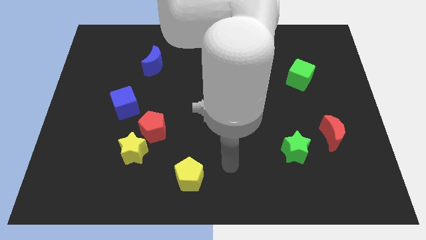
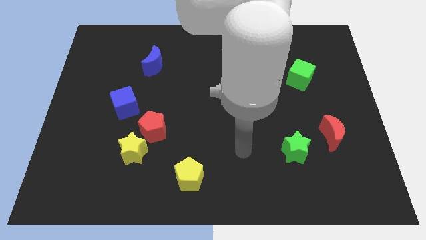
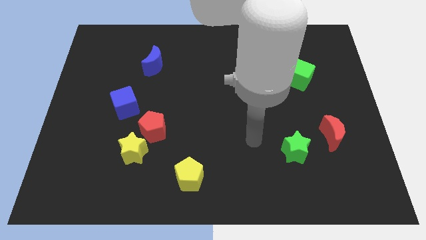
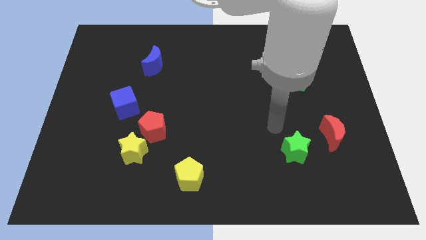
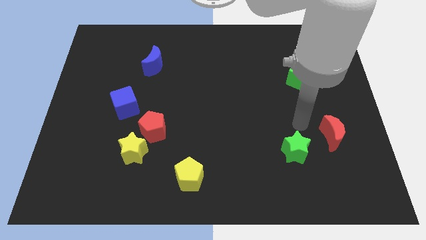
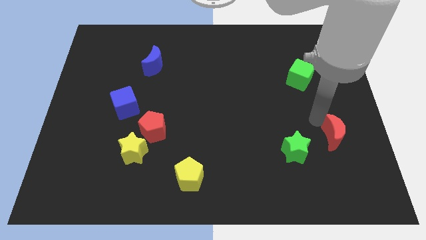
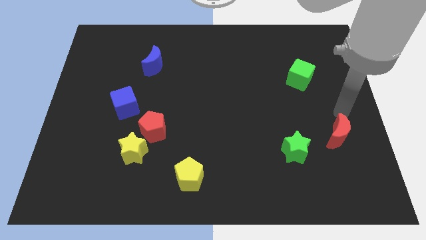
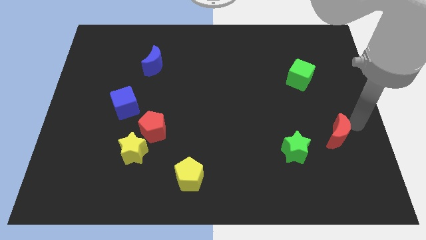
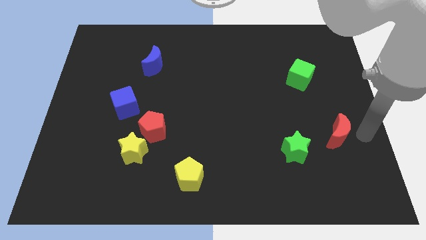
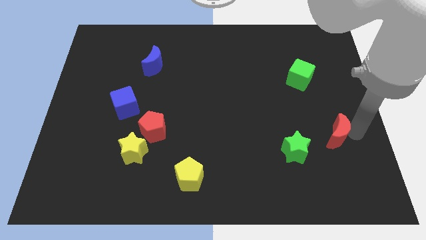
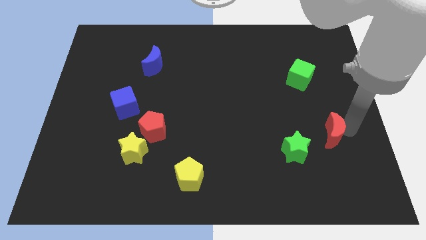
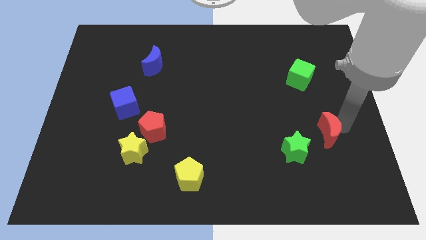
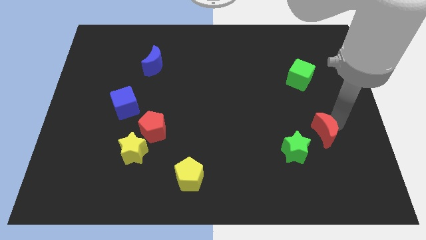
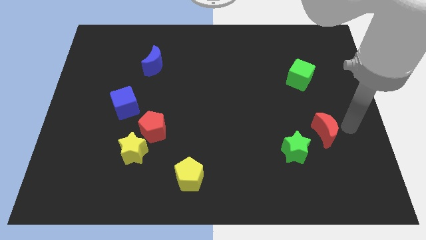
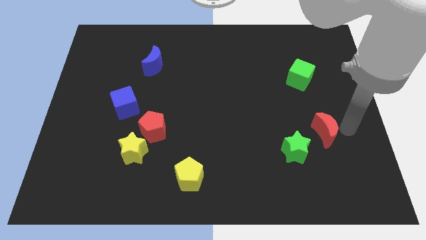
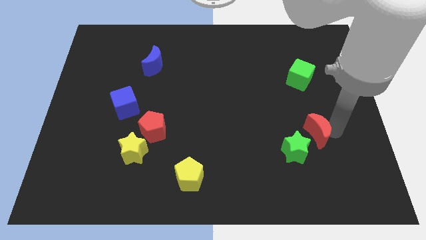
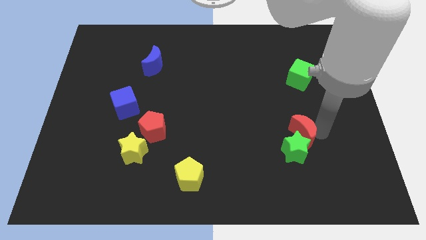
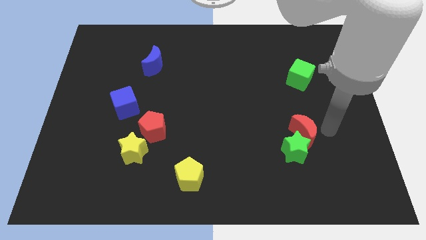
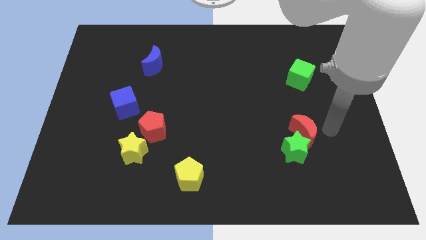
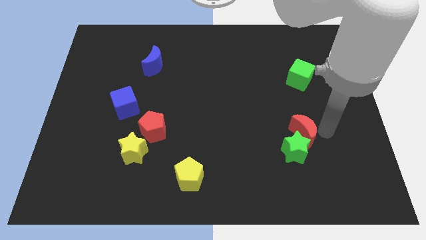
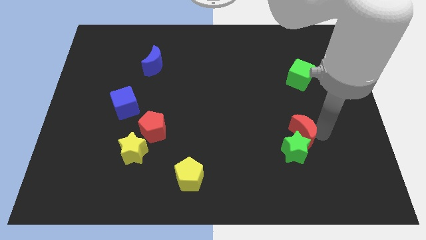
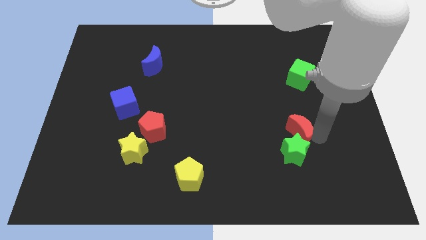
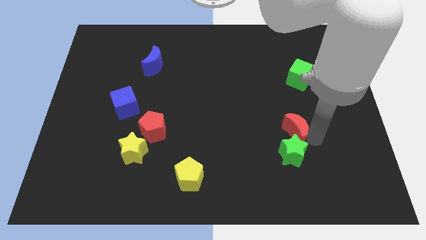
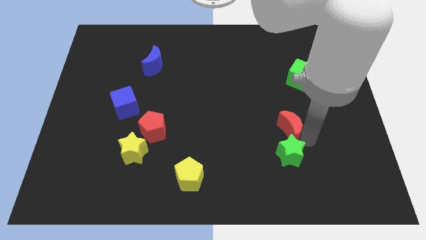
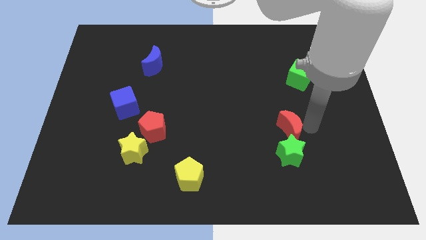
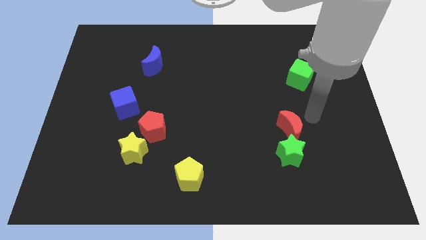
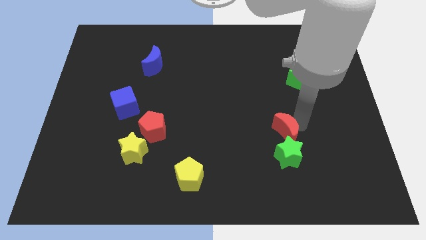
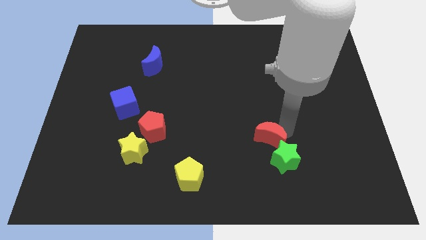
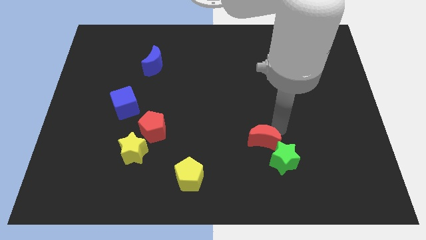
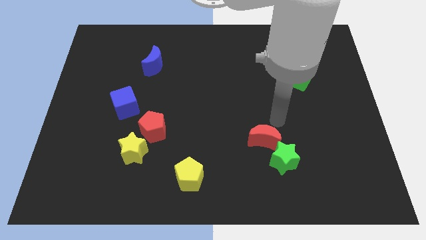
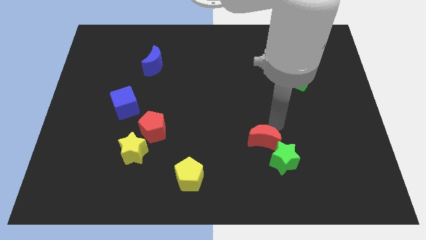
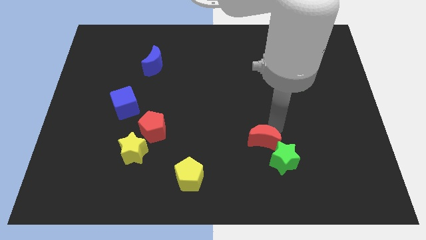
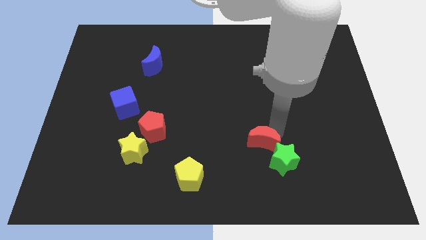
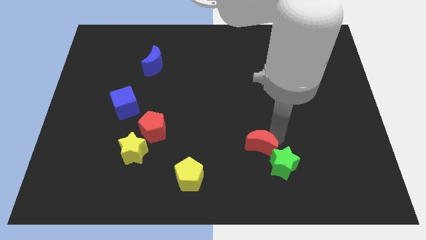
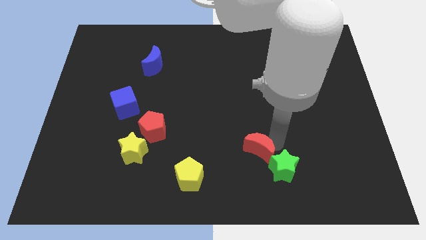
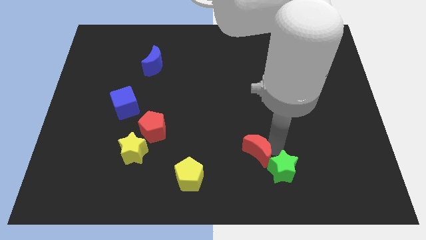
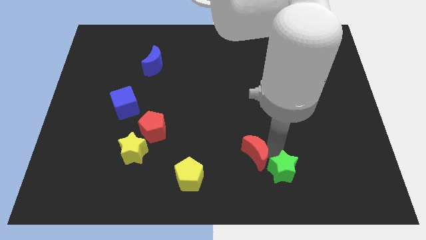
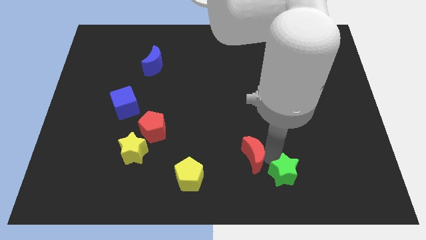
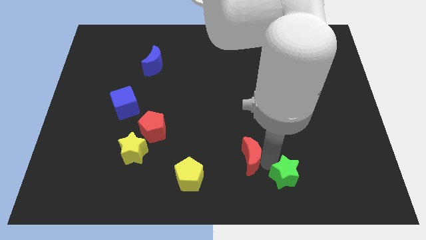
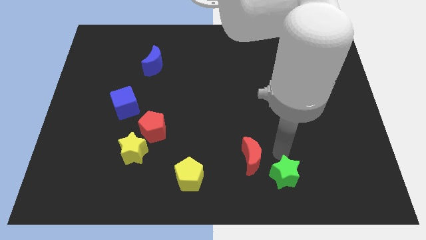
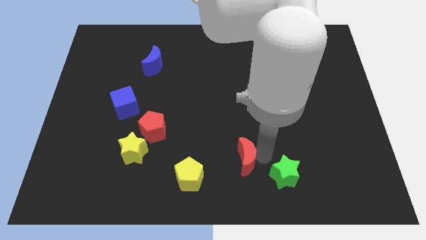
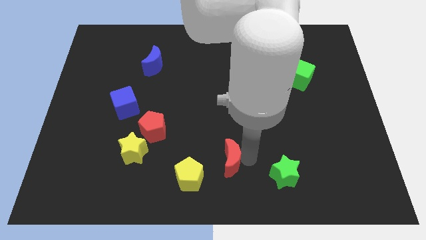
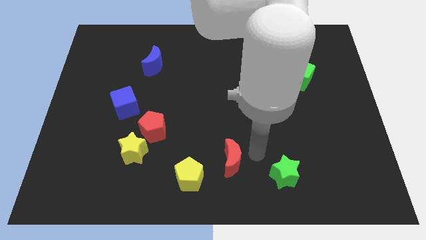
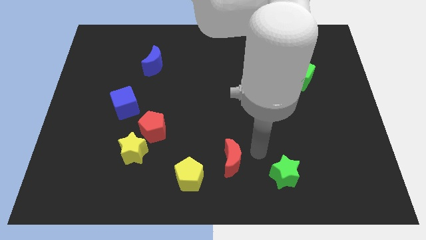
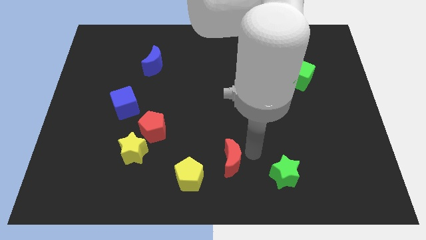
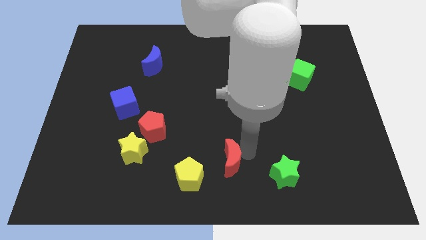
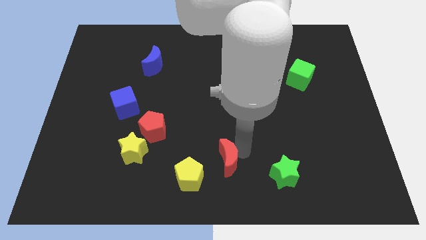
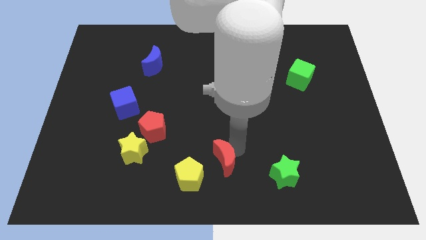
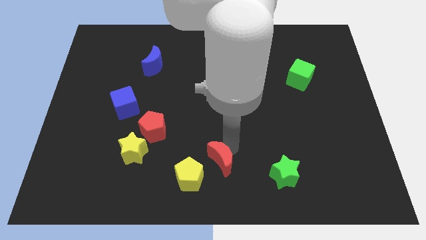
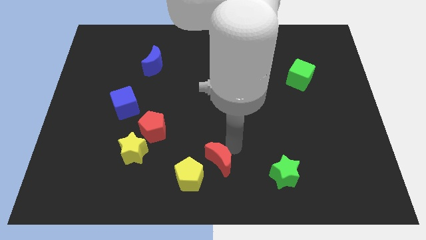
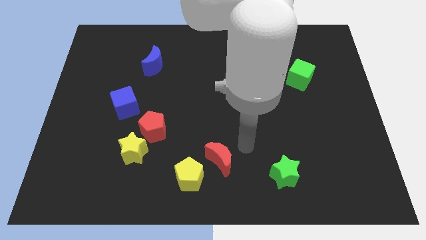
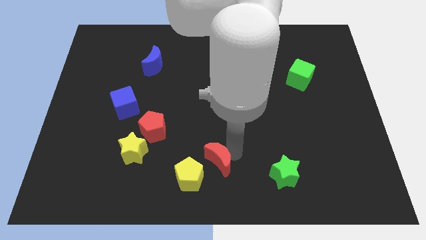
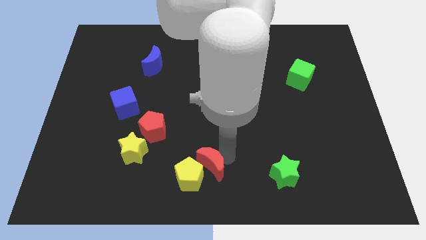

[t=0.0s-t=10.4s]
put the red moon next to the yellow pentagon

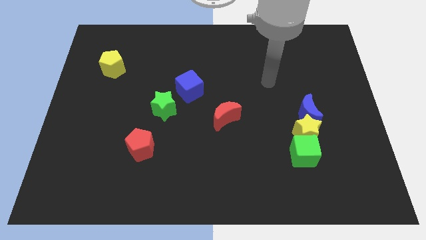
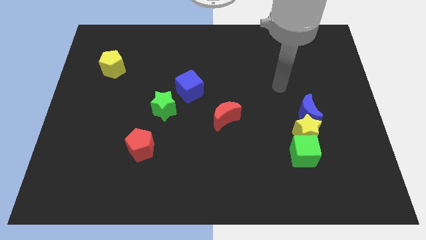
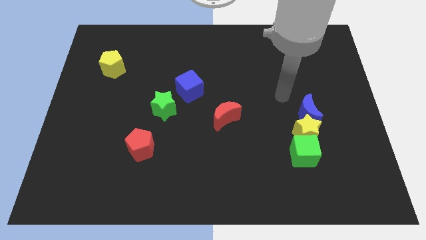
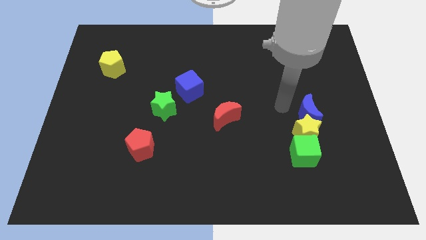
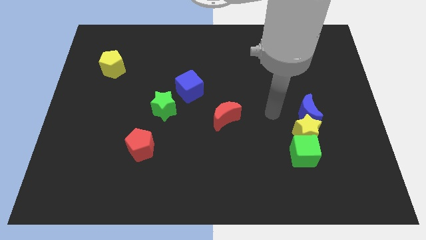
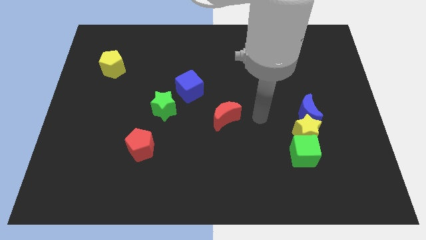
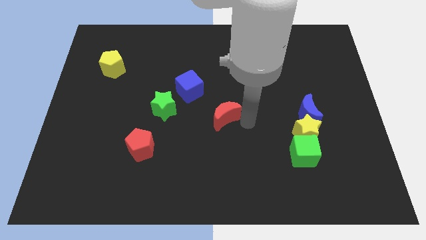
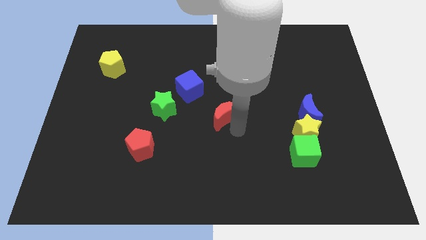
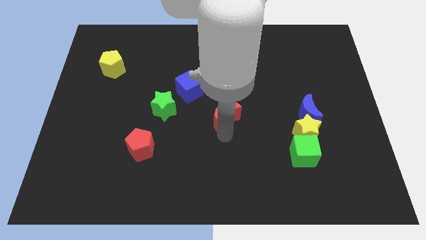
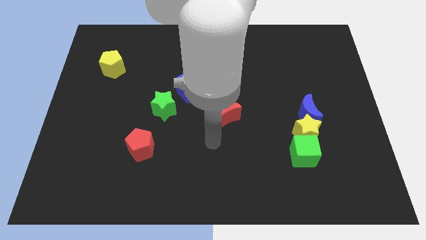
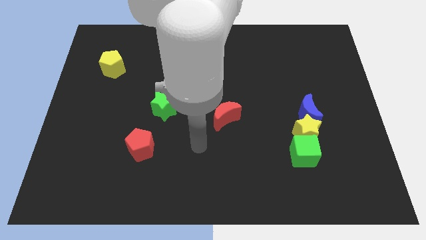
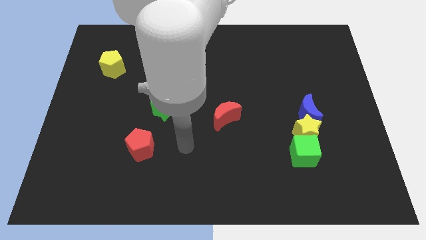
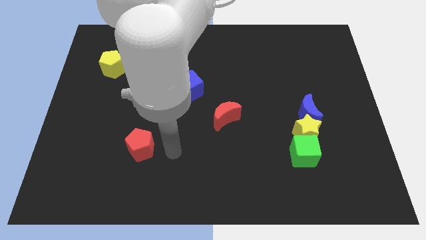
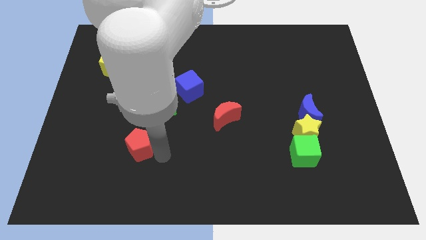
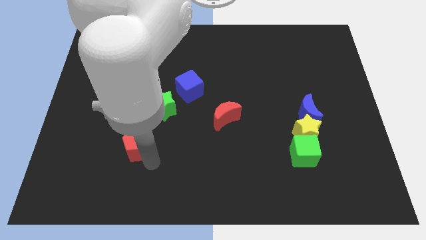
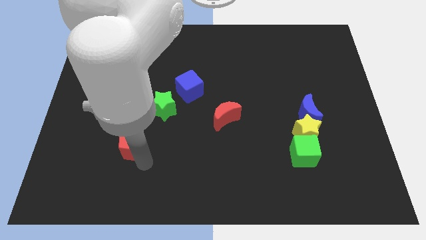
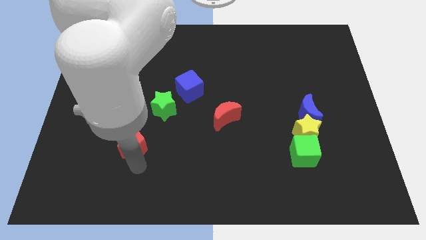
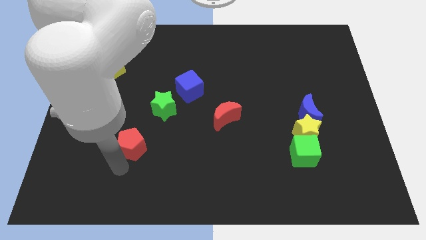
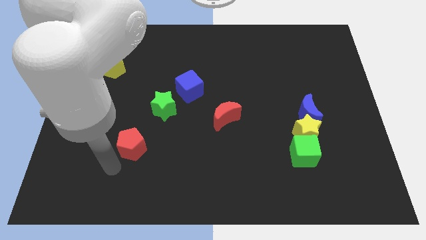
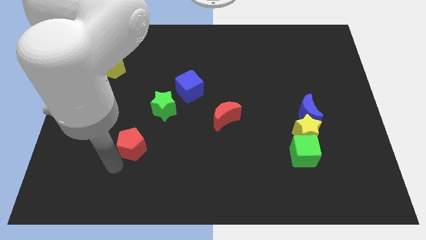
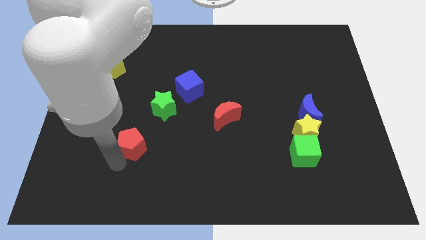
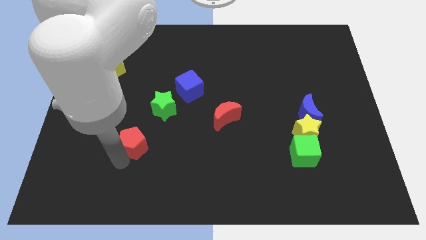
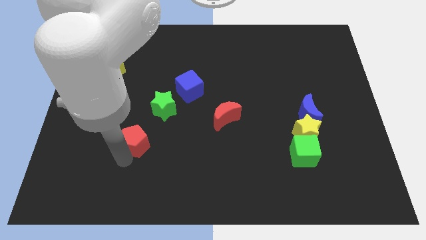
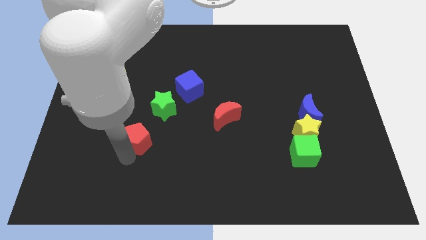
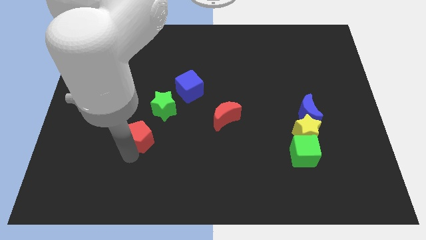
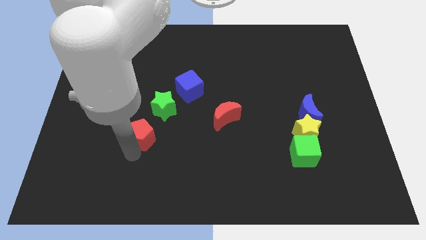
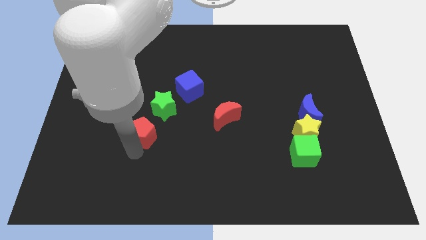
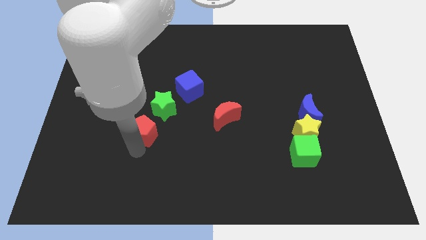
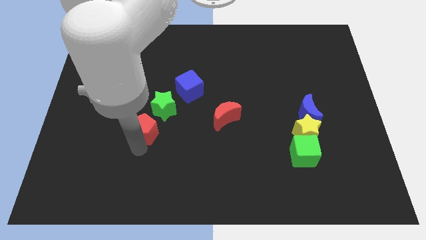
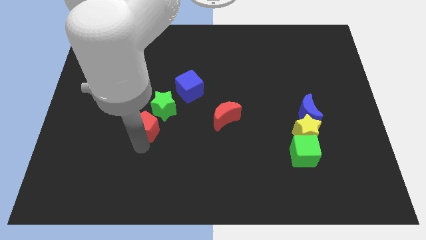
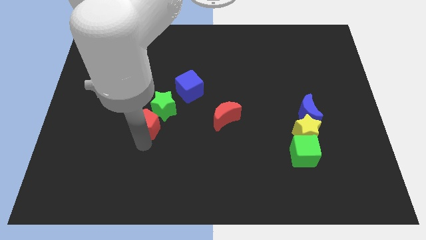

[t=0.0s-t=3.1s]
put the red pentagon towards the green star
